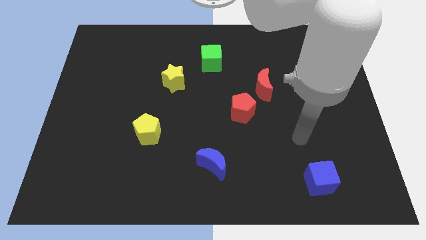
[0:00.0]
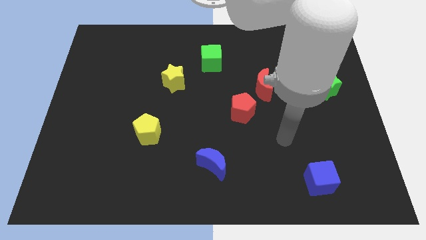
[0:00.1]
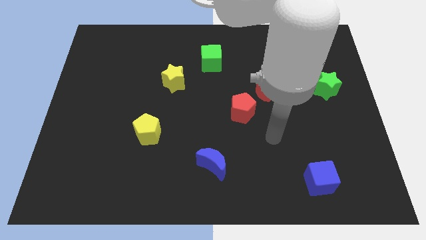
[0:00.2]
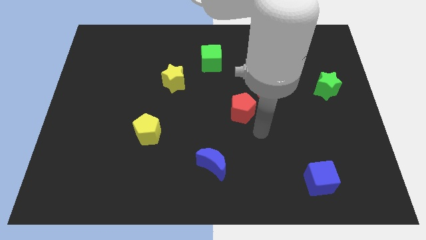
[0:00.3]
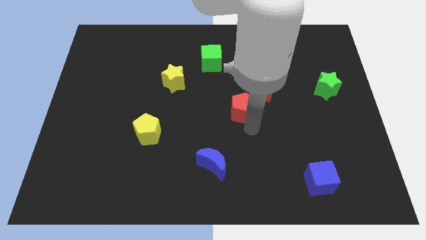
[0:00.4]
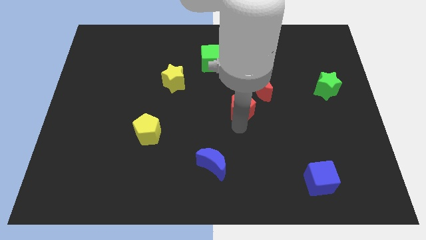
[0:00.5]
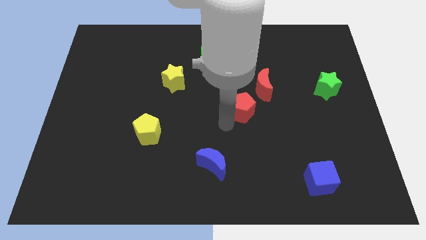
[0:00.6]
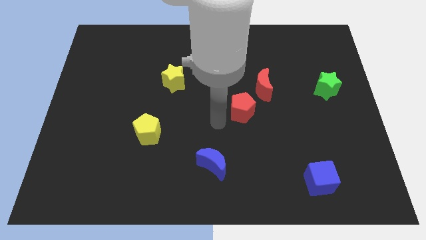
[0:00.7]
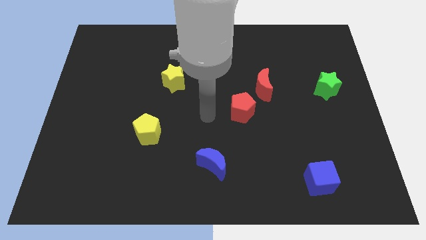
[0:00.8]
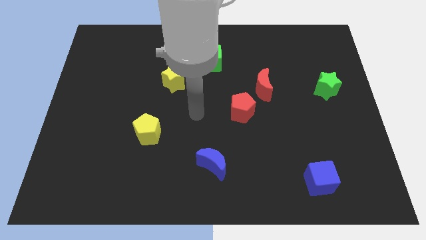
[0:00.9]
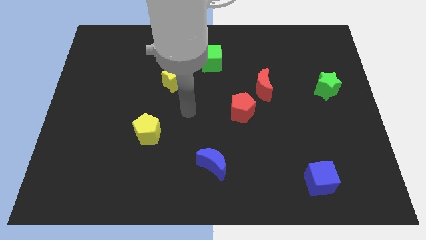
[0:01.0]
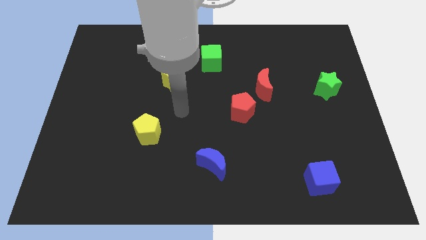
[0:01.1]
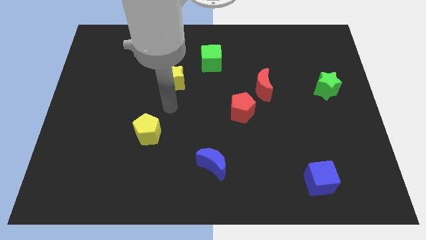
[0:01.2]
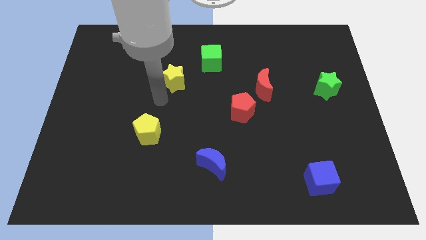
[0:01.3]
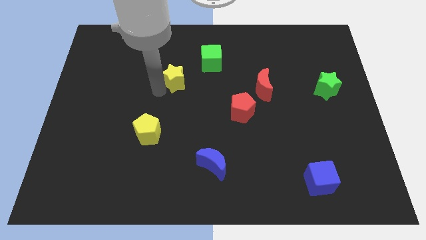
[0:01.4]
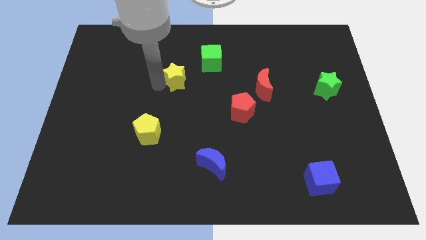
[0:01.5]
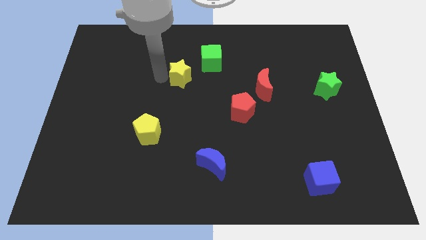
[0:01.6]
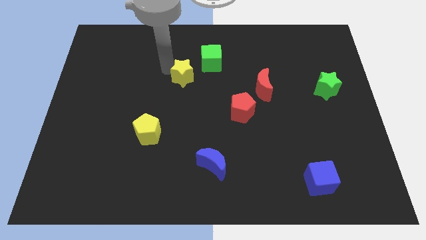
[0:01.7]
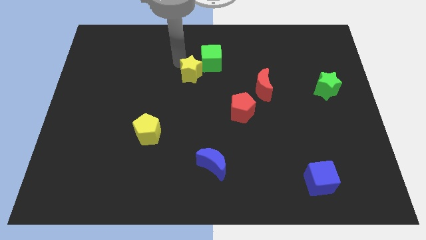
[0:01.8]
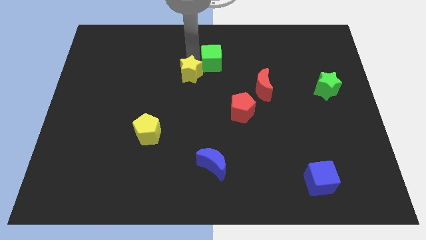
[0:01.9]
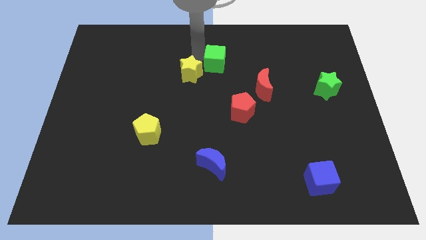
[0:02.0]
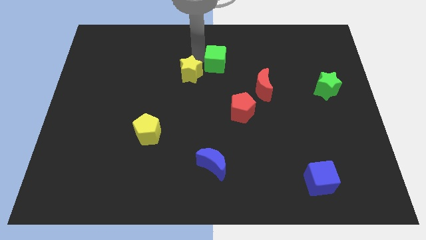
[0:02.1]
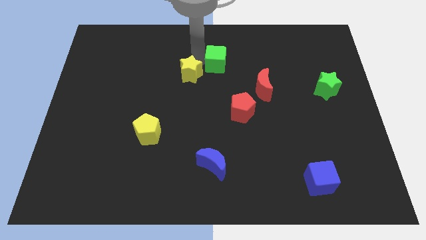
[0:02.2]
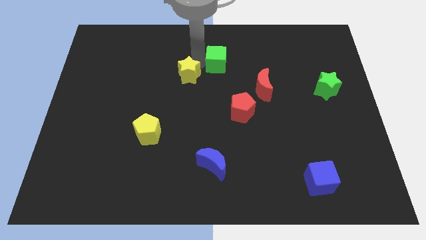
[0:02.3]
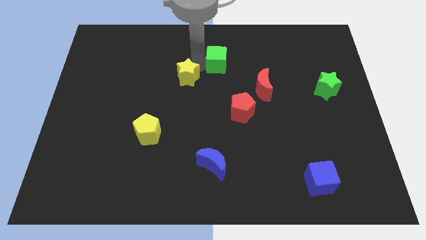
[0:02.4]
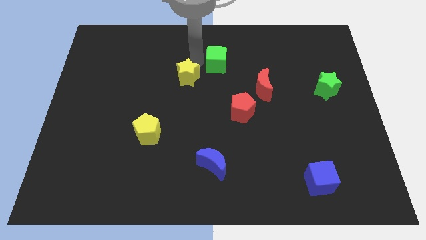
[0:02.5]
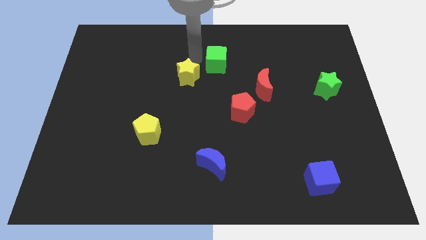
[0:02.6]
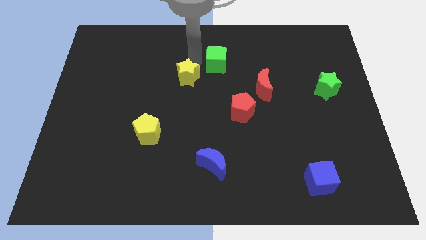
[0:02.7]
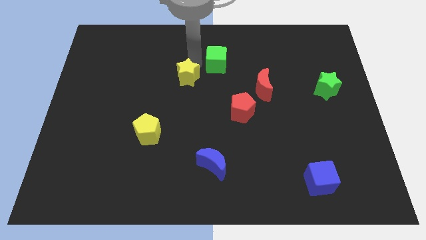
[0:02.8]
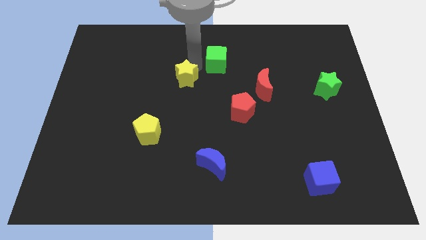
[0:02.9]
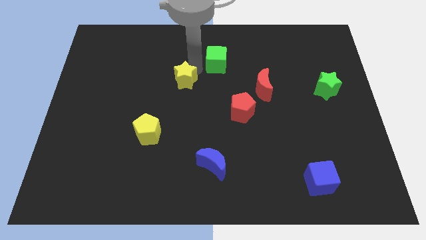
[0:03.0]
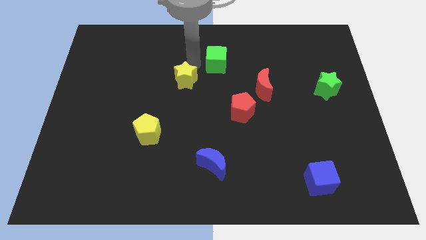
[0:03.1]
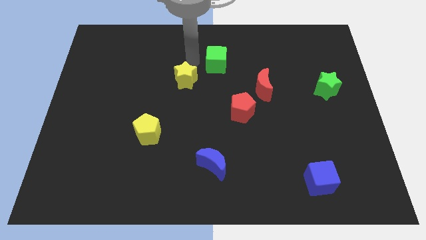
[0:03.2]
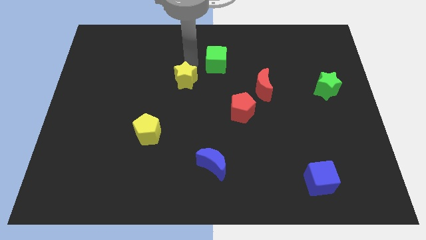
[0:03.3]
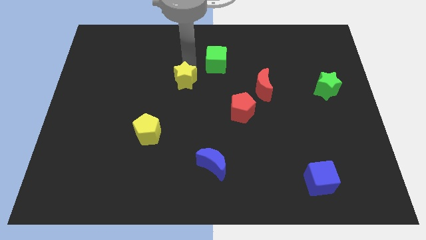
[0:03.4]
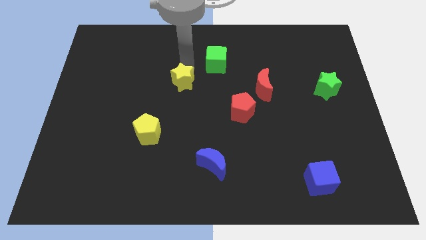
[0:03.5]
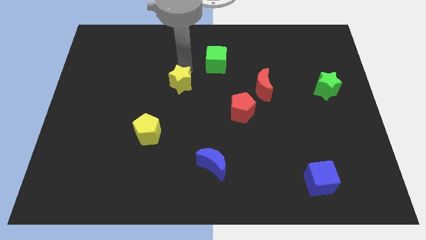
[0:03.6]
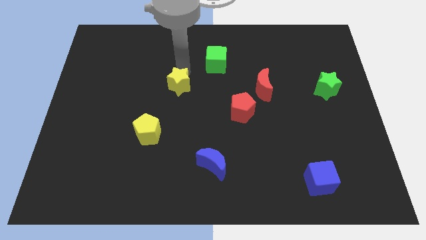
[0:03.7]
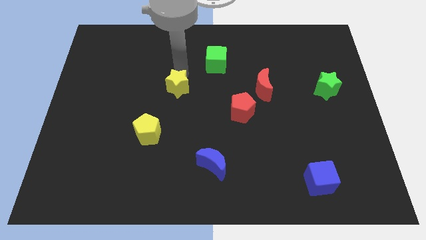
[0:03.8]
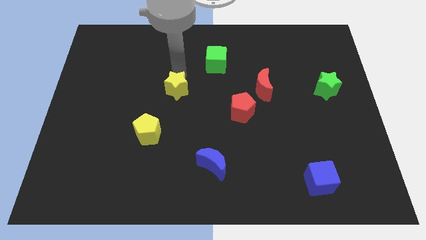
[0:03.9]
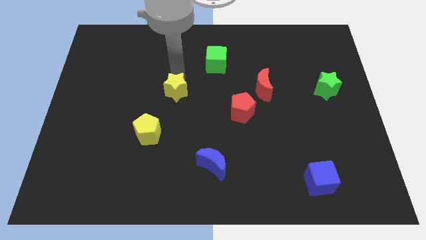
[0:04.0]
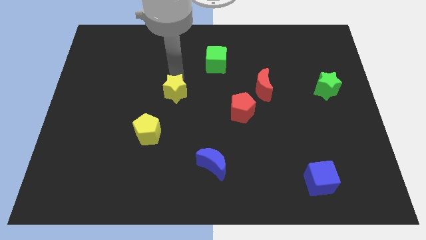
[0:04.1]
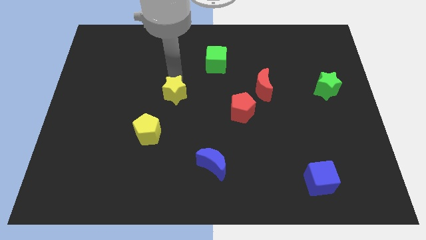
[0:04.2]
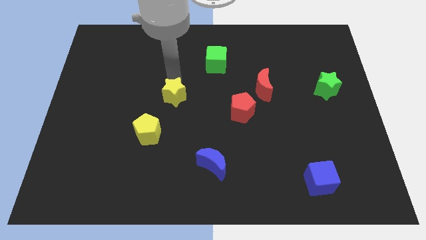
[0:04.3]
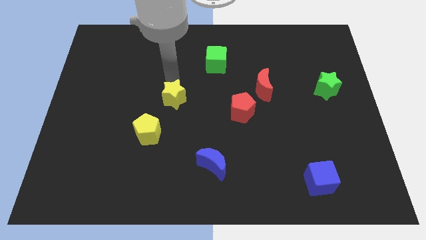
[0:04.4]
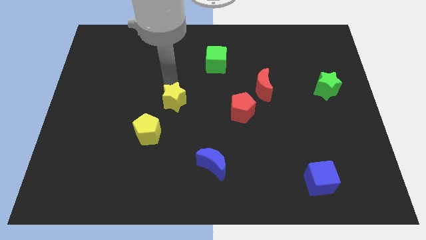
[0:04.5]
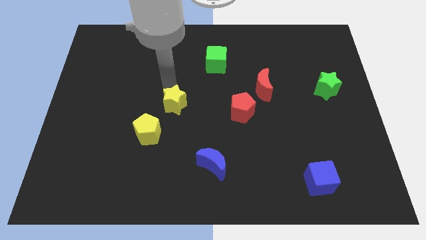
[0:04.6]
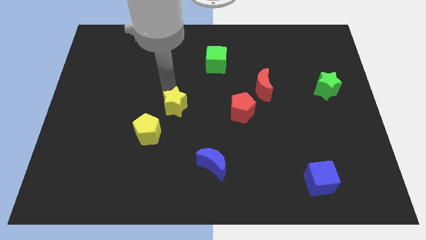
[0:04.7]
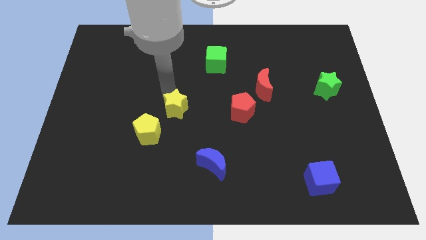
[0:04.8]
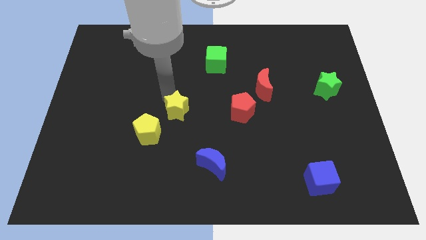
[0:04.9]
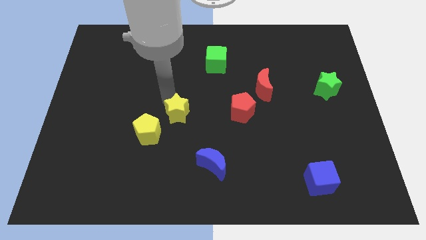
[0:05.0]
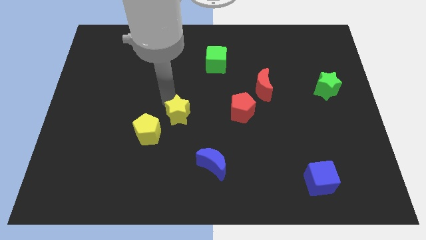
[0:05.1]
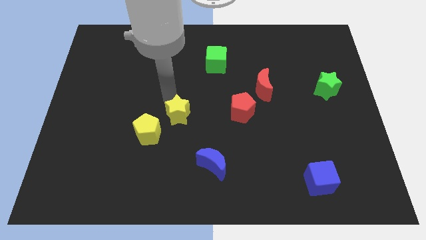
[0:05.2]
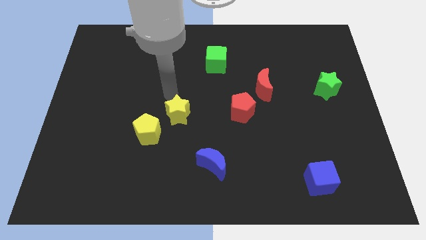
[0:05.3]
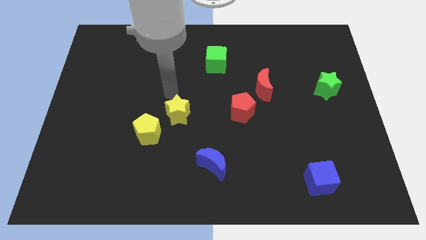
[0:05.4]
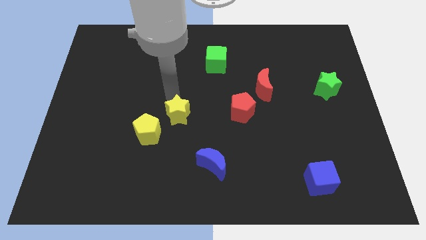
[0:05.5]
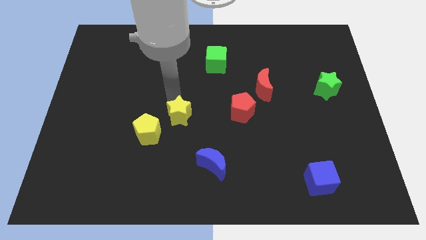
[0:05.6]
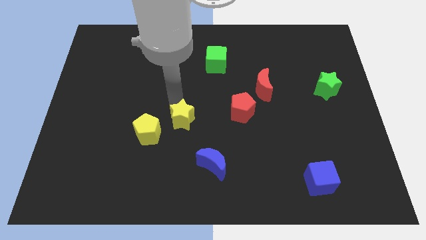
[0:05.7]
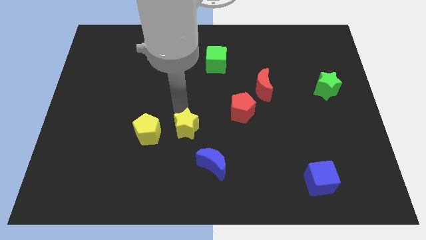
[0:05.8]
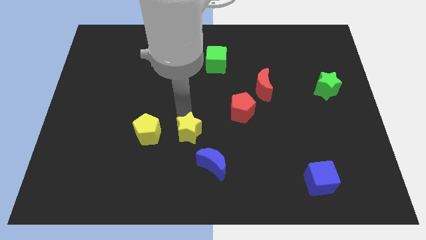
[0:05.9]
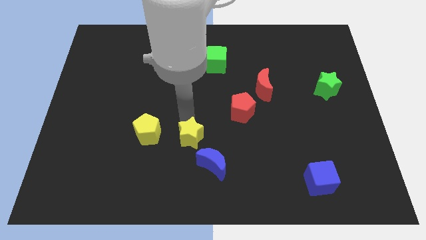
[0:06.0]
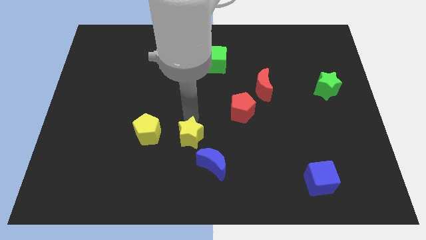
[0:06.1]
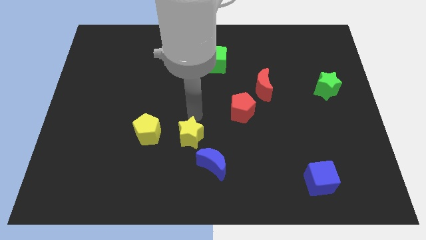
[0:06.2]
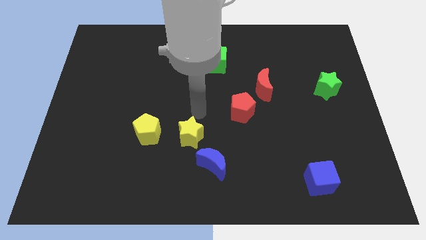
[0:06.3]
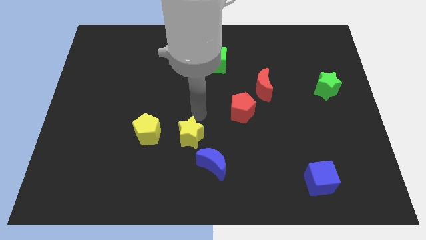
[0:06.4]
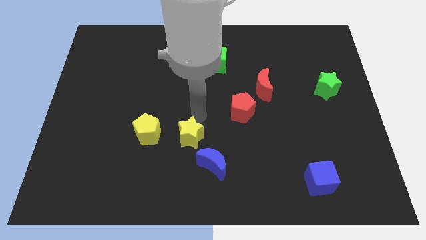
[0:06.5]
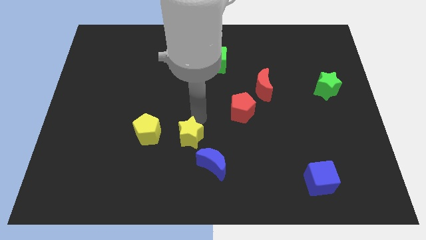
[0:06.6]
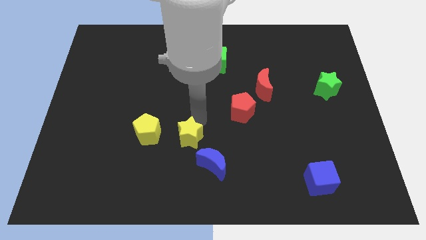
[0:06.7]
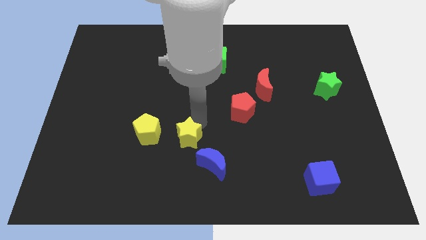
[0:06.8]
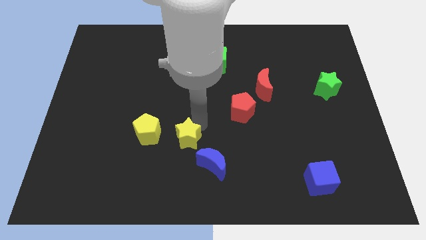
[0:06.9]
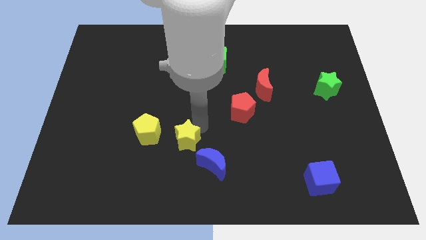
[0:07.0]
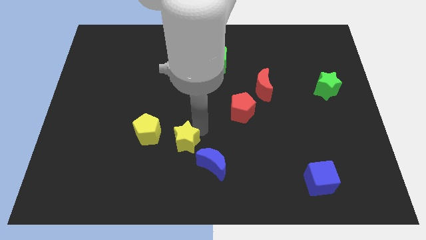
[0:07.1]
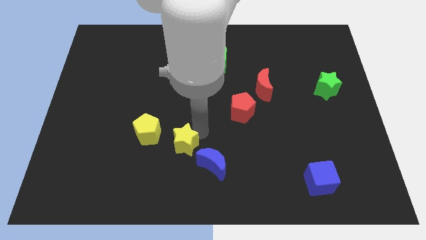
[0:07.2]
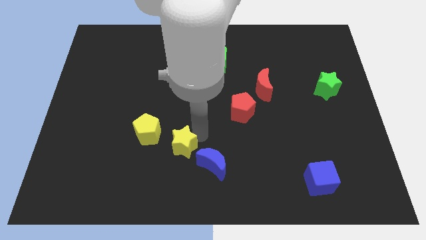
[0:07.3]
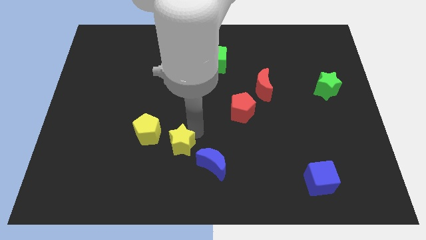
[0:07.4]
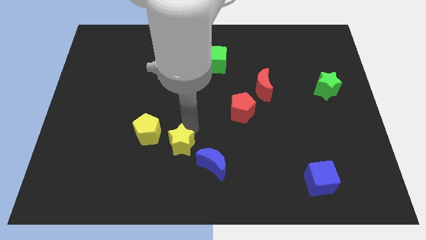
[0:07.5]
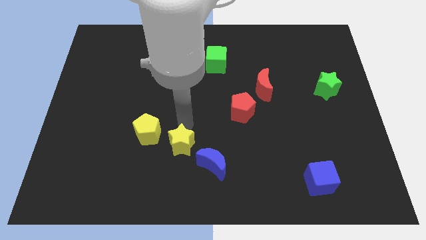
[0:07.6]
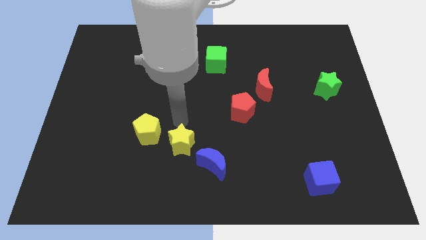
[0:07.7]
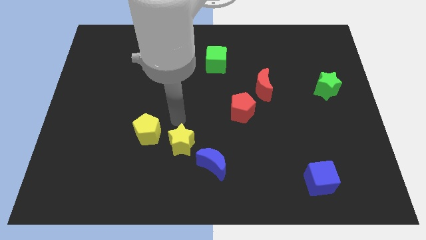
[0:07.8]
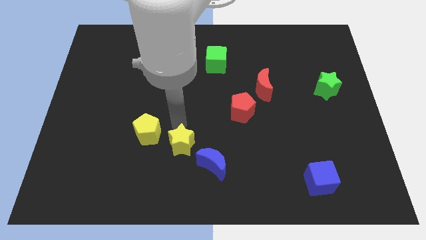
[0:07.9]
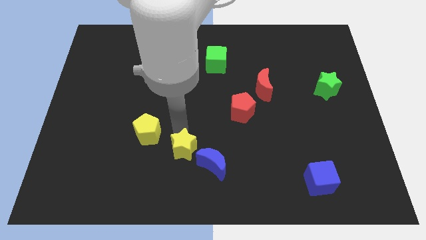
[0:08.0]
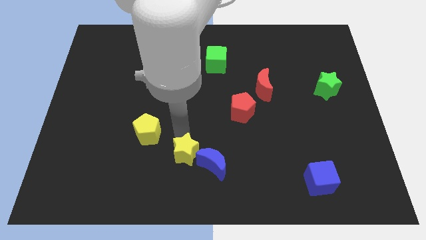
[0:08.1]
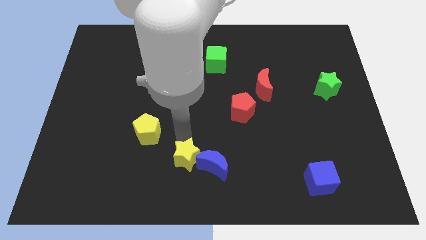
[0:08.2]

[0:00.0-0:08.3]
move the yellow star to the bottom side
